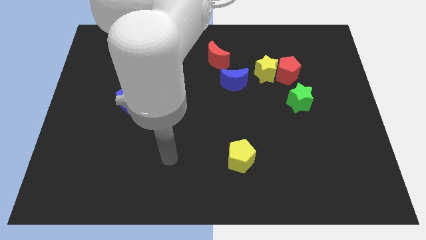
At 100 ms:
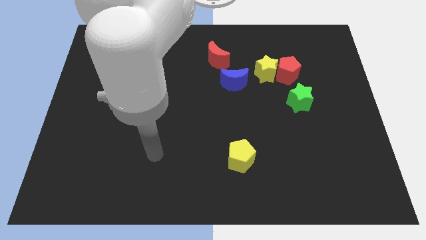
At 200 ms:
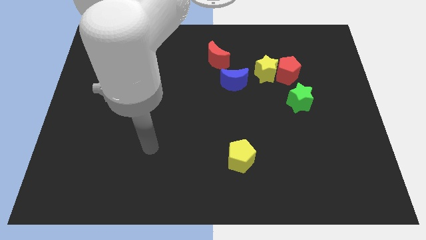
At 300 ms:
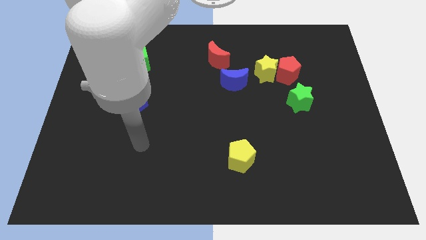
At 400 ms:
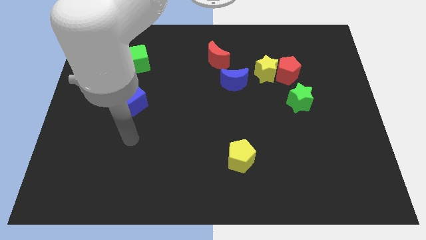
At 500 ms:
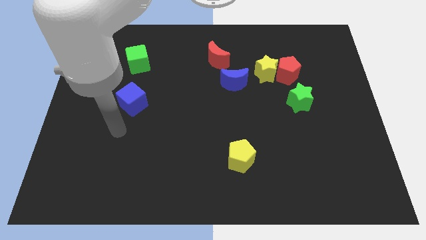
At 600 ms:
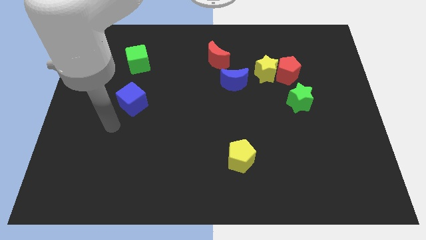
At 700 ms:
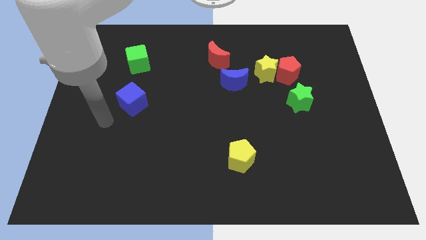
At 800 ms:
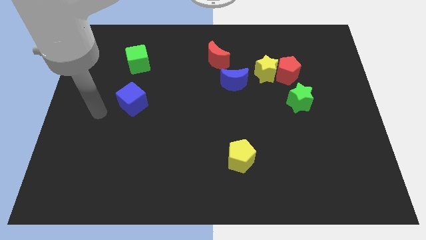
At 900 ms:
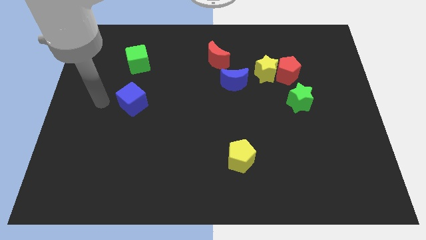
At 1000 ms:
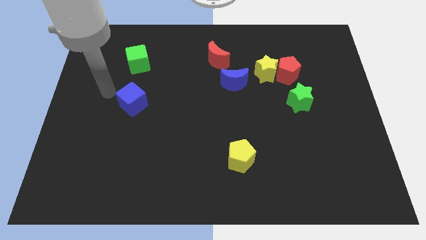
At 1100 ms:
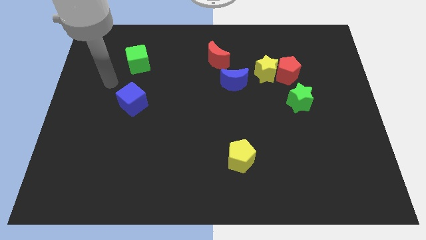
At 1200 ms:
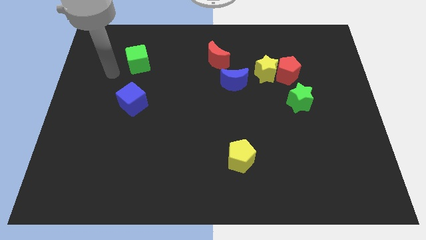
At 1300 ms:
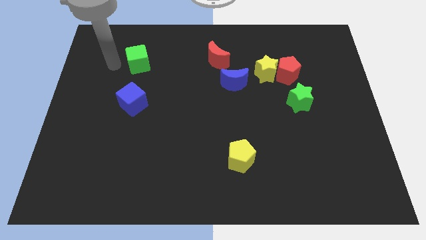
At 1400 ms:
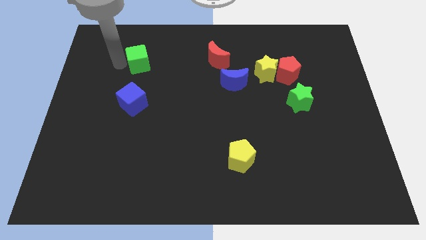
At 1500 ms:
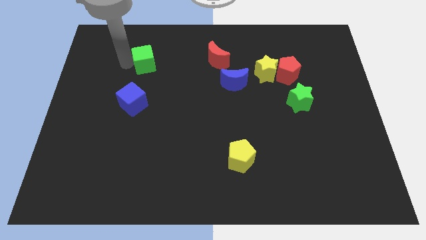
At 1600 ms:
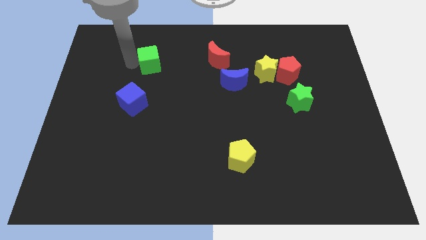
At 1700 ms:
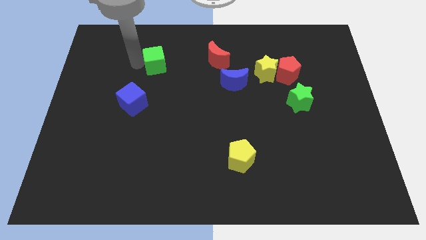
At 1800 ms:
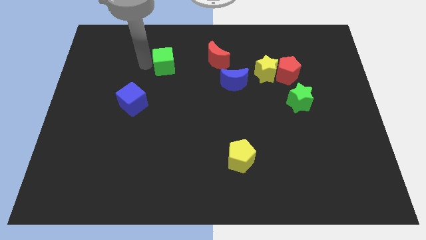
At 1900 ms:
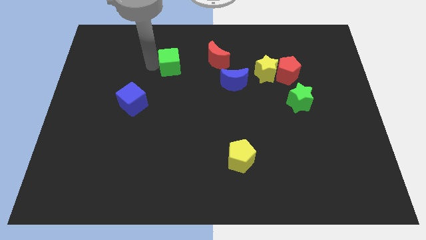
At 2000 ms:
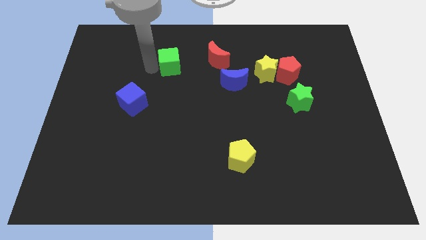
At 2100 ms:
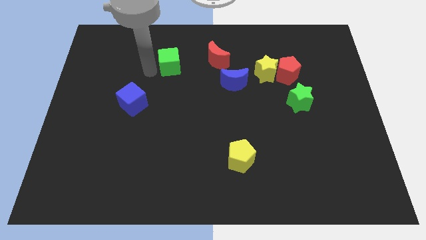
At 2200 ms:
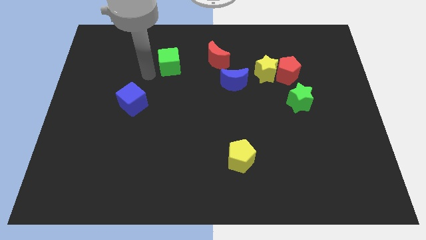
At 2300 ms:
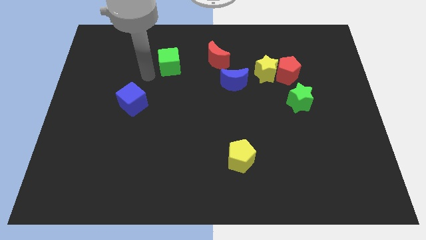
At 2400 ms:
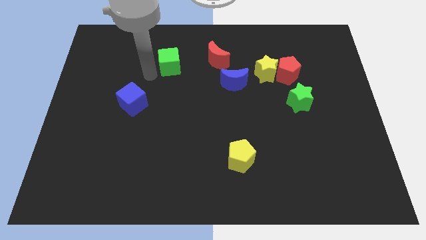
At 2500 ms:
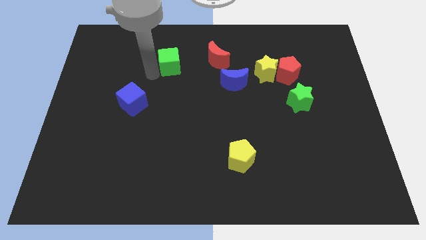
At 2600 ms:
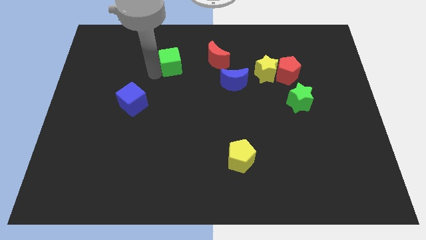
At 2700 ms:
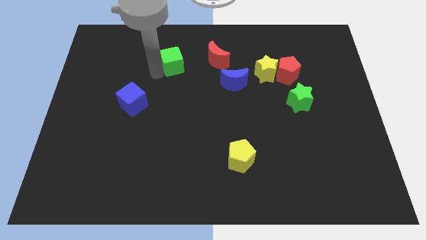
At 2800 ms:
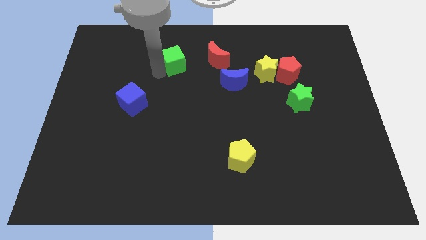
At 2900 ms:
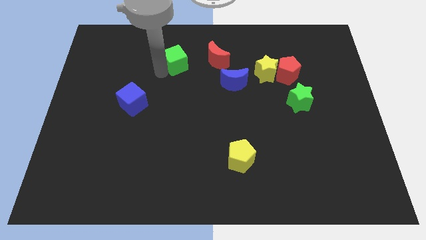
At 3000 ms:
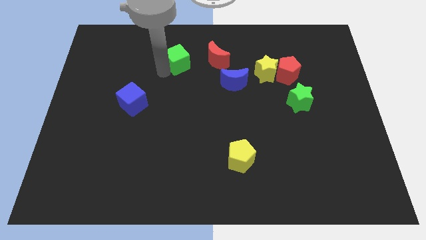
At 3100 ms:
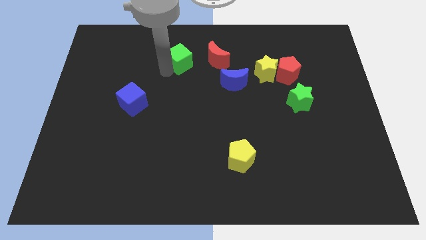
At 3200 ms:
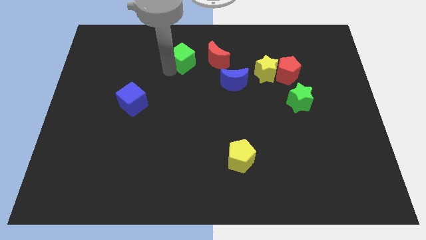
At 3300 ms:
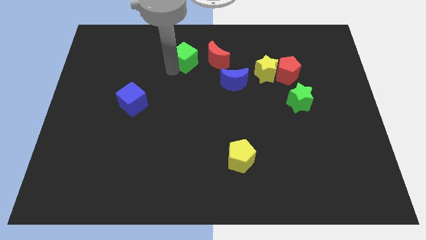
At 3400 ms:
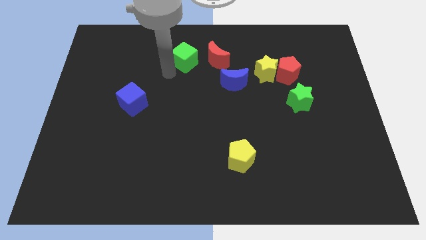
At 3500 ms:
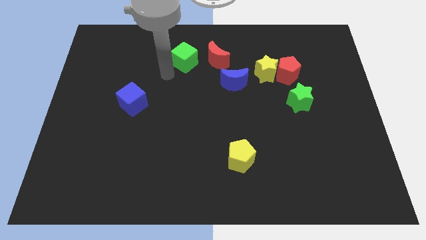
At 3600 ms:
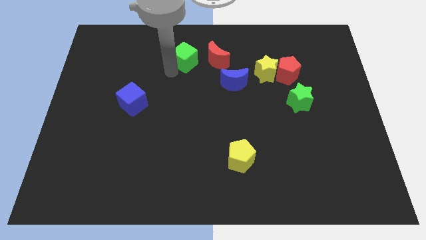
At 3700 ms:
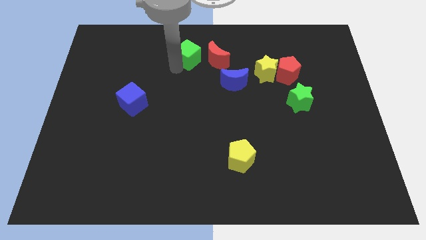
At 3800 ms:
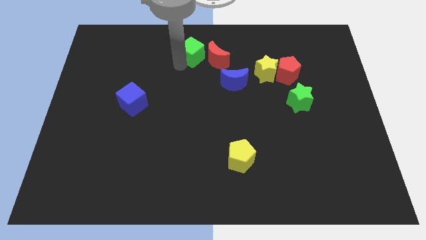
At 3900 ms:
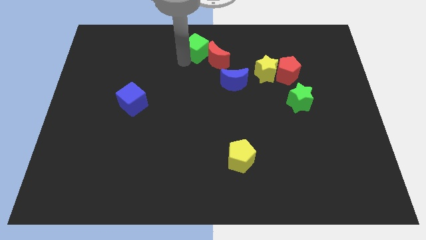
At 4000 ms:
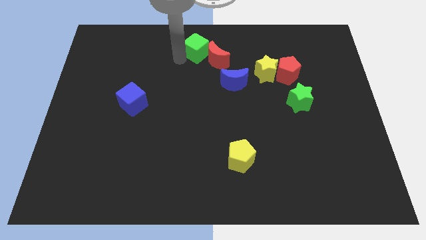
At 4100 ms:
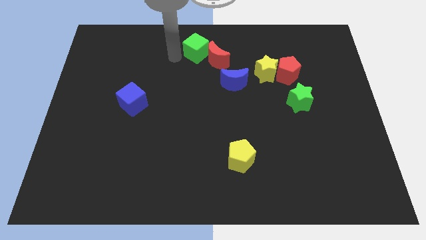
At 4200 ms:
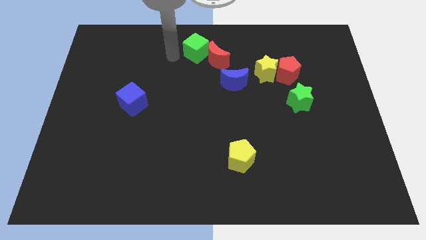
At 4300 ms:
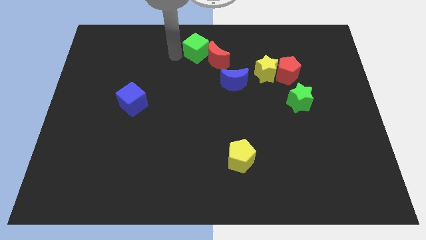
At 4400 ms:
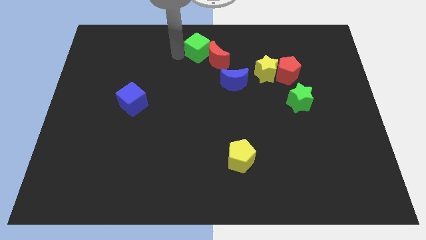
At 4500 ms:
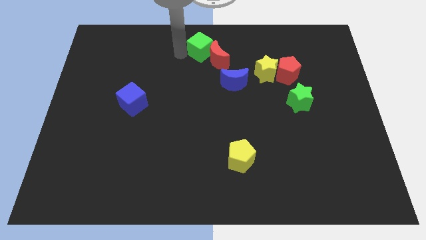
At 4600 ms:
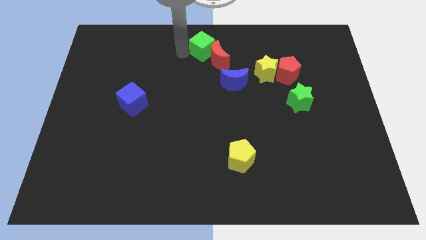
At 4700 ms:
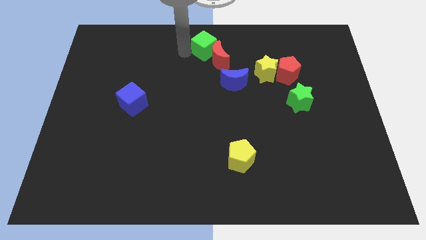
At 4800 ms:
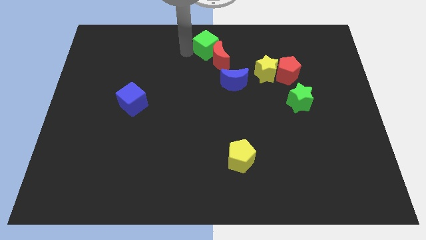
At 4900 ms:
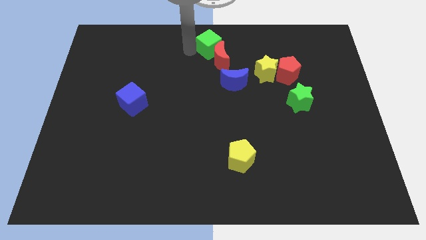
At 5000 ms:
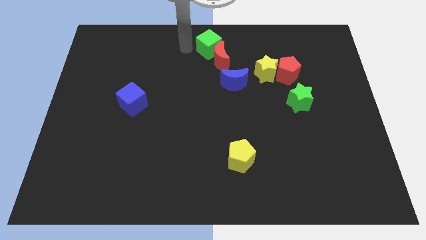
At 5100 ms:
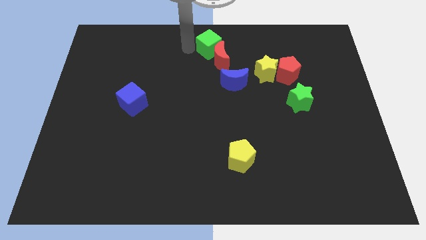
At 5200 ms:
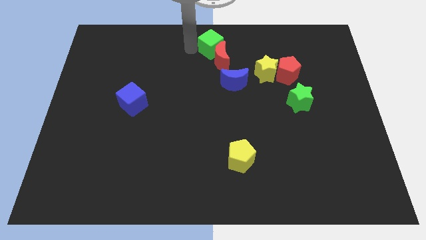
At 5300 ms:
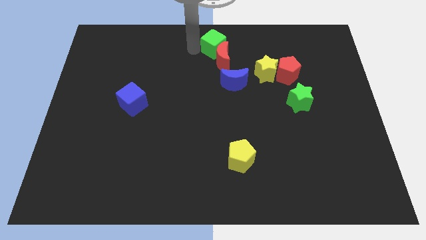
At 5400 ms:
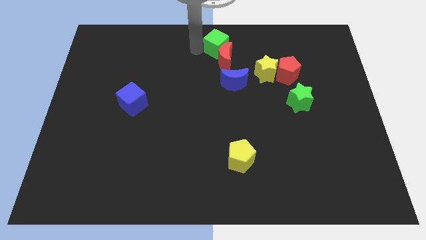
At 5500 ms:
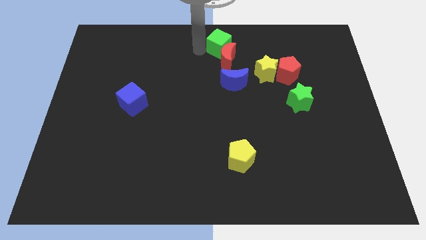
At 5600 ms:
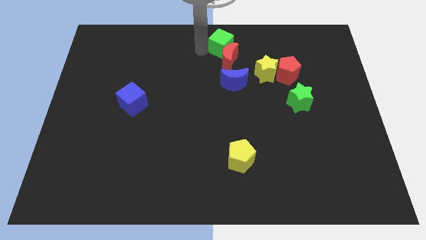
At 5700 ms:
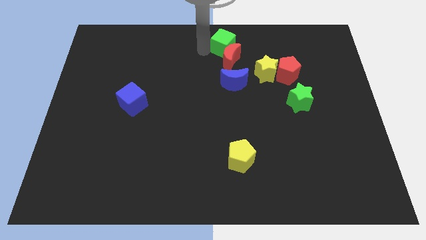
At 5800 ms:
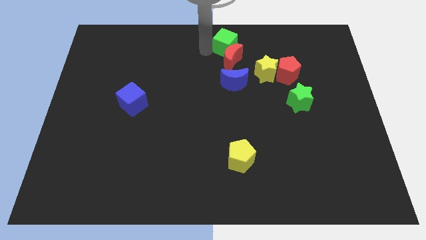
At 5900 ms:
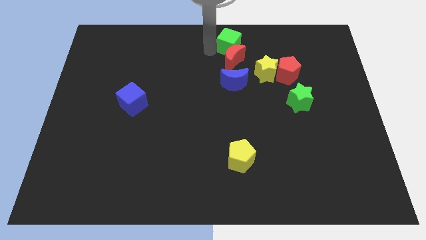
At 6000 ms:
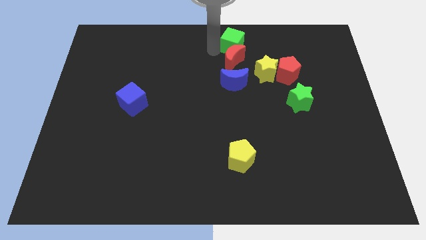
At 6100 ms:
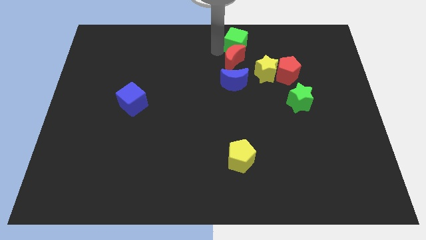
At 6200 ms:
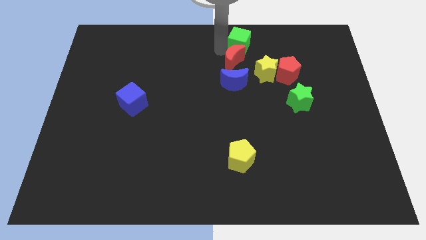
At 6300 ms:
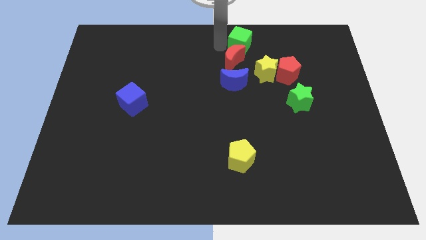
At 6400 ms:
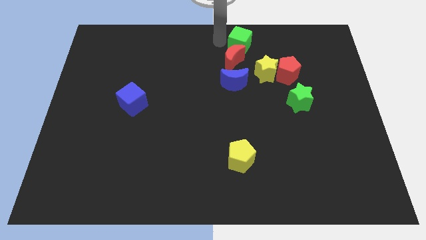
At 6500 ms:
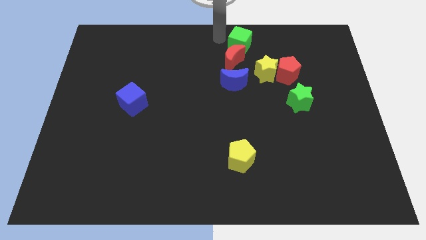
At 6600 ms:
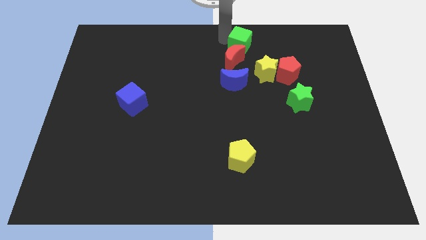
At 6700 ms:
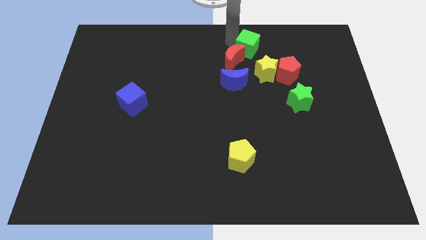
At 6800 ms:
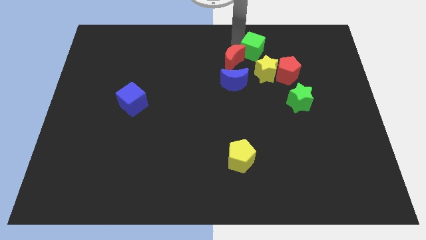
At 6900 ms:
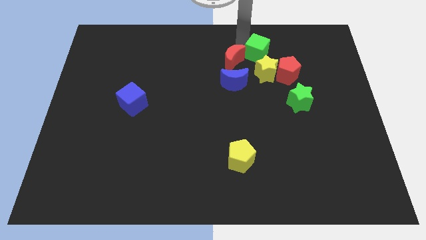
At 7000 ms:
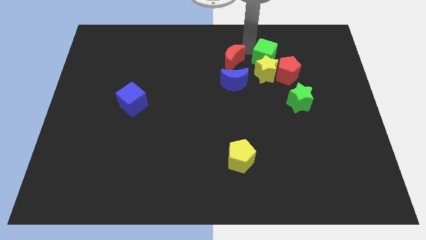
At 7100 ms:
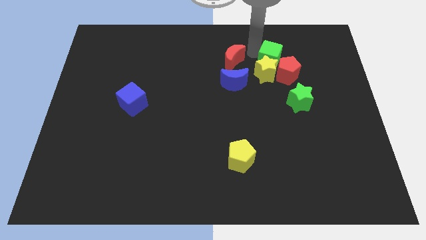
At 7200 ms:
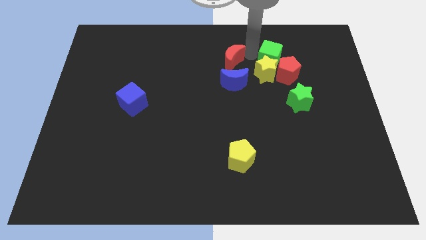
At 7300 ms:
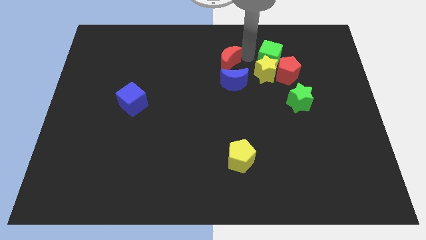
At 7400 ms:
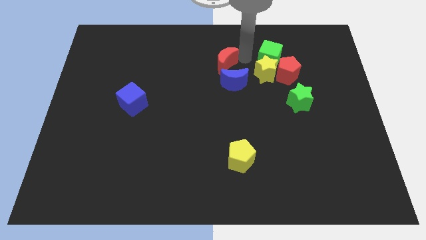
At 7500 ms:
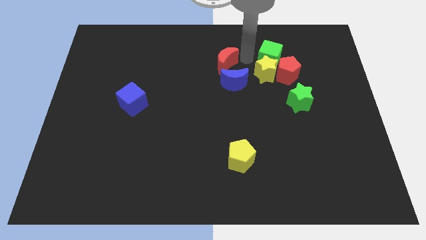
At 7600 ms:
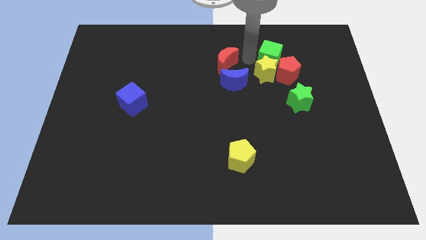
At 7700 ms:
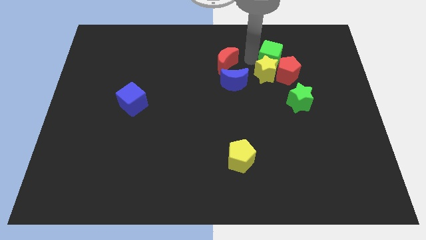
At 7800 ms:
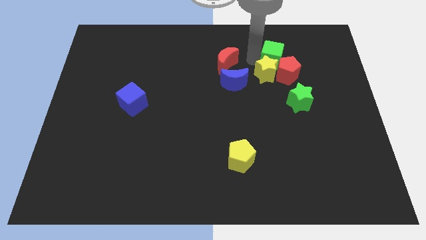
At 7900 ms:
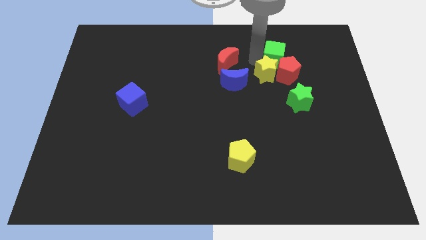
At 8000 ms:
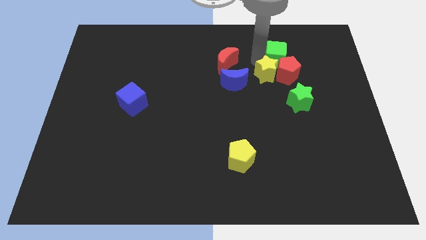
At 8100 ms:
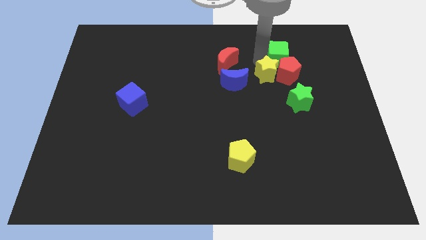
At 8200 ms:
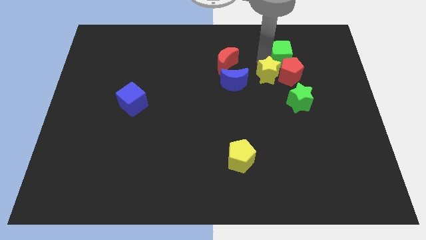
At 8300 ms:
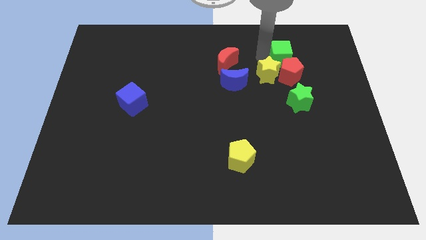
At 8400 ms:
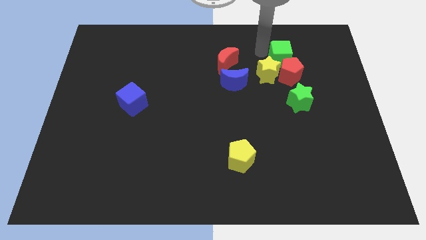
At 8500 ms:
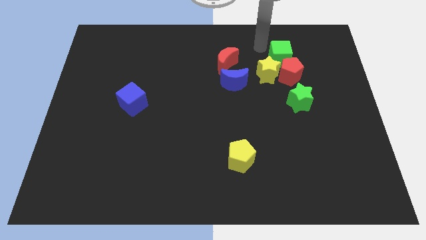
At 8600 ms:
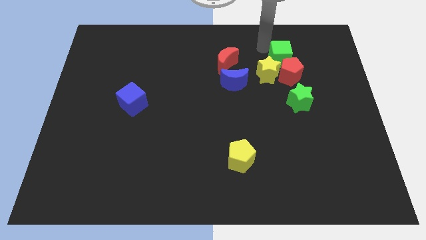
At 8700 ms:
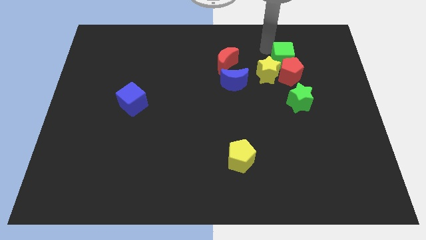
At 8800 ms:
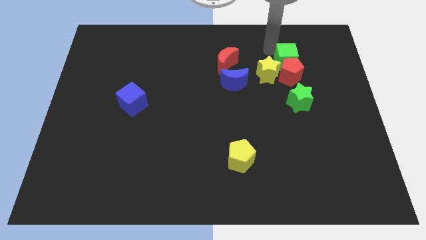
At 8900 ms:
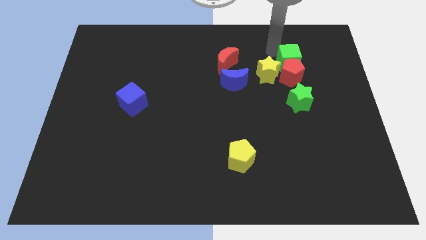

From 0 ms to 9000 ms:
put the green cube to the right side of the yellow star
